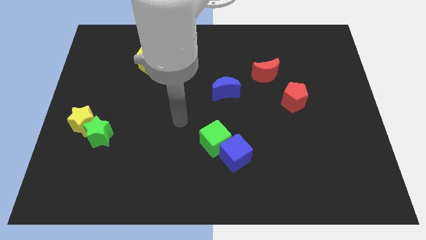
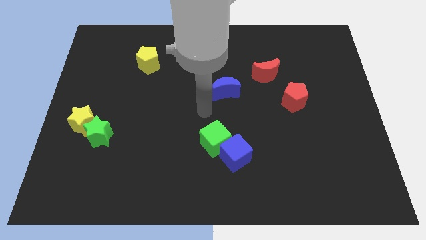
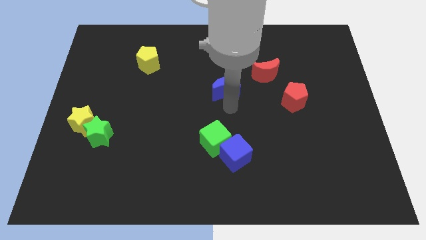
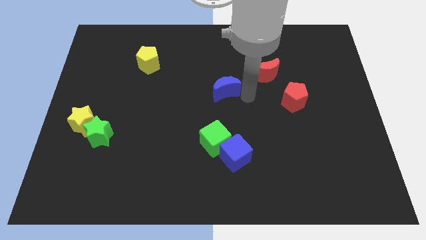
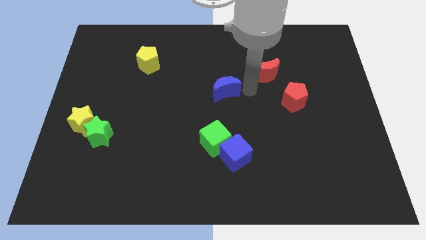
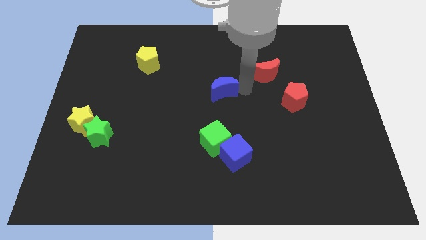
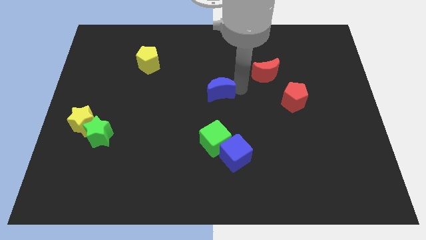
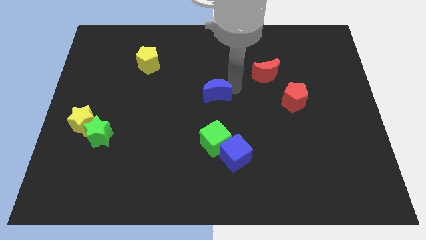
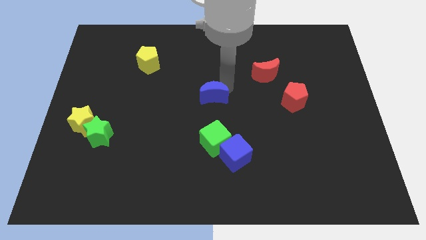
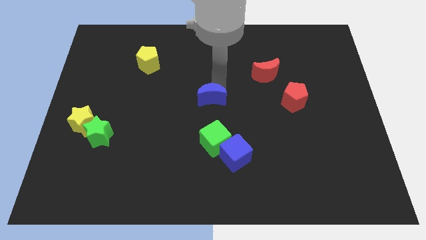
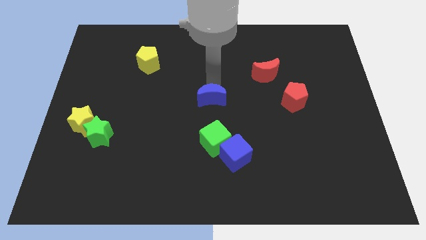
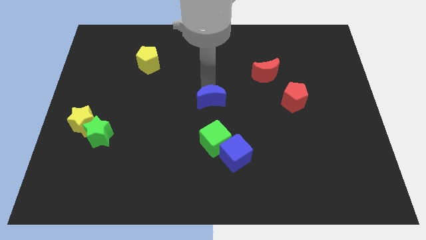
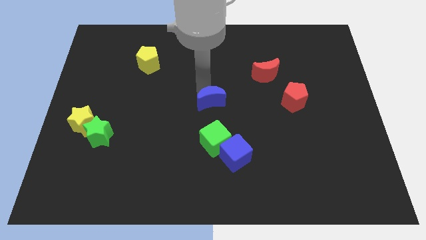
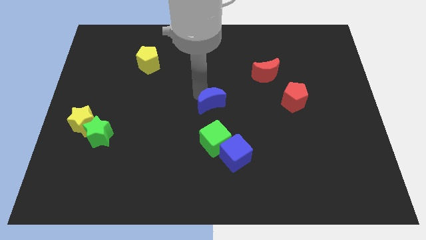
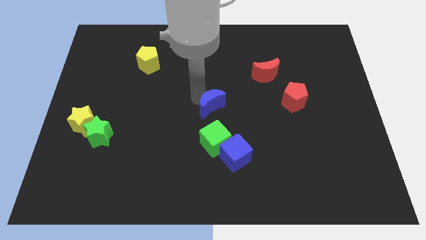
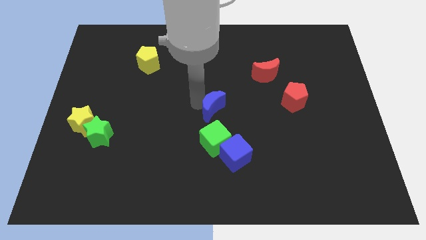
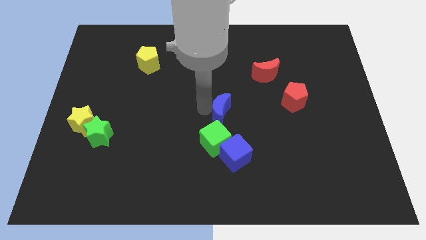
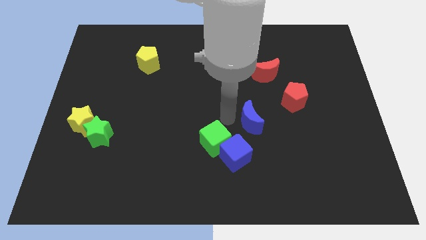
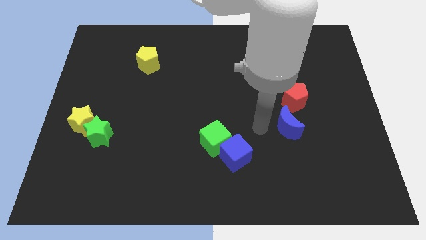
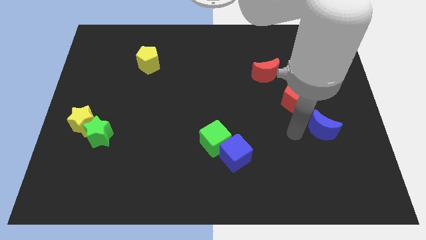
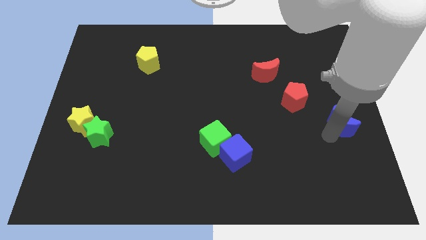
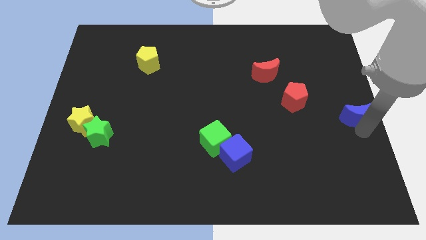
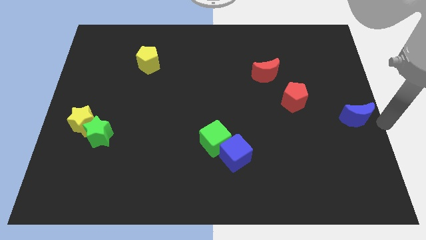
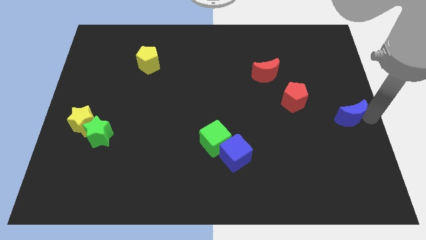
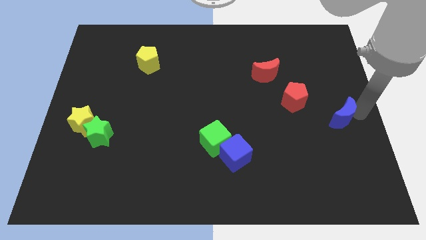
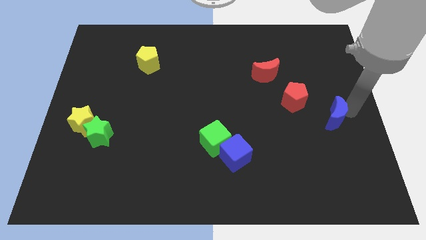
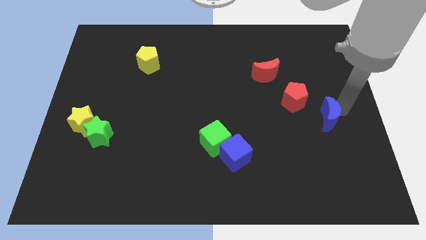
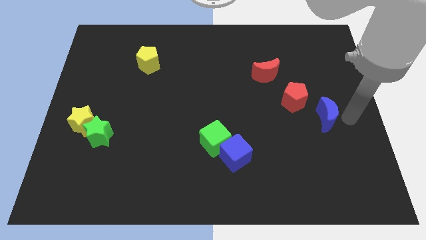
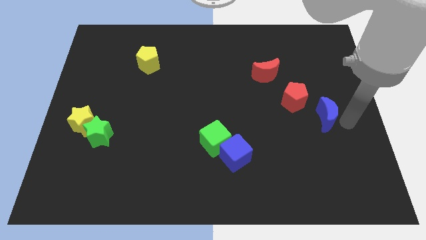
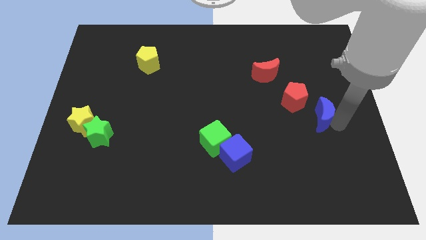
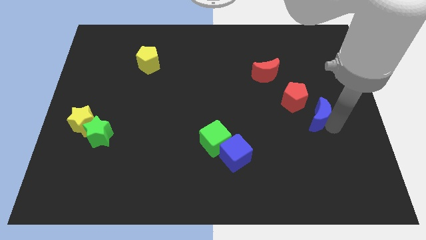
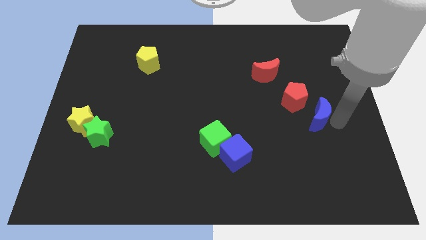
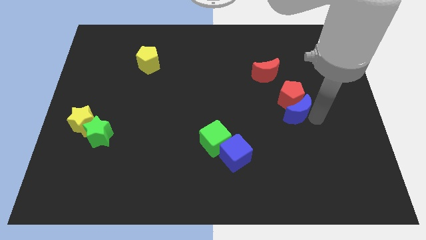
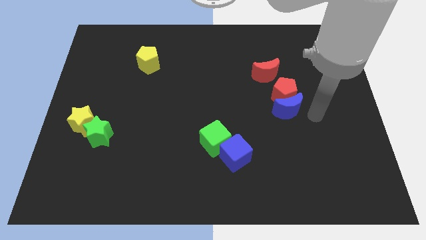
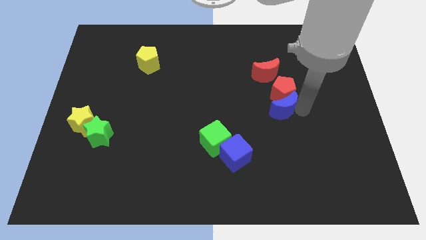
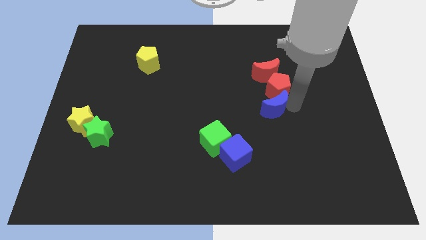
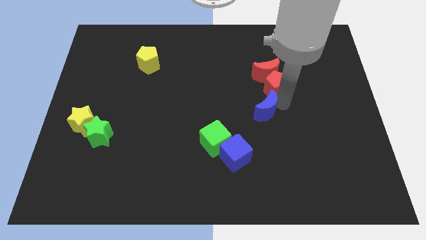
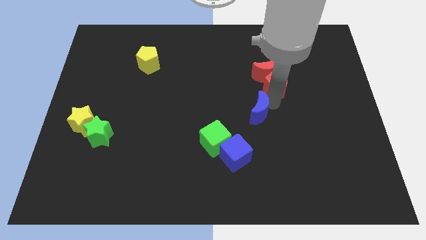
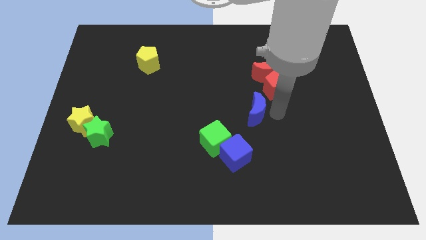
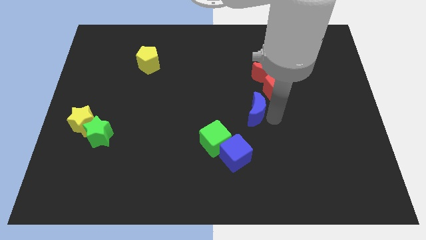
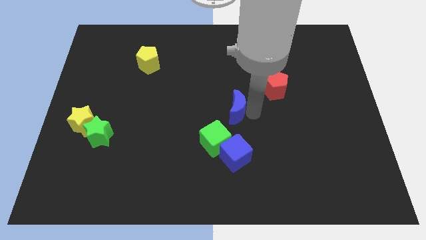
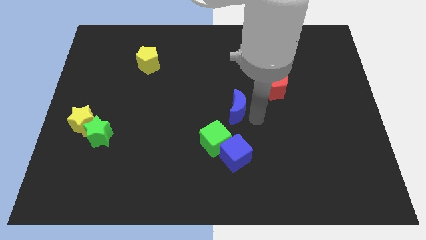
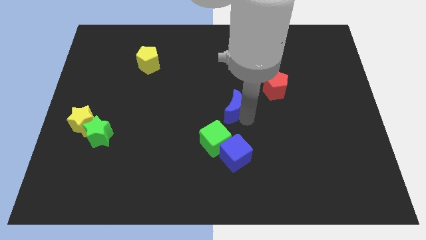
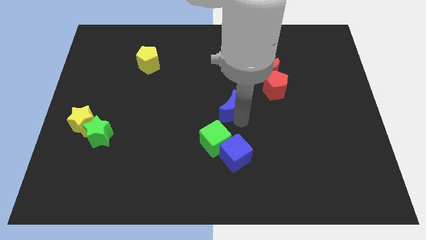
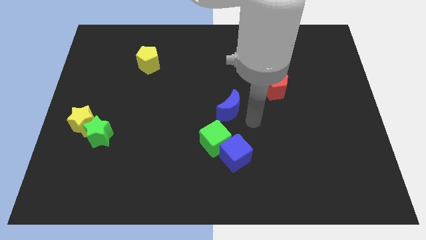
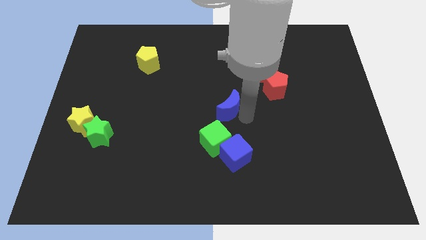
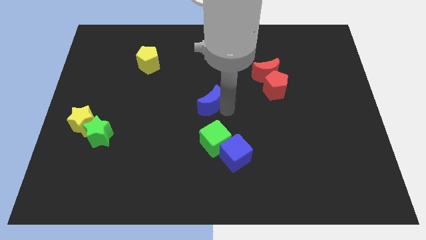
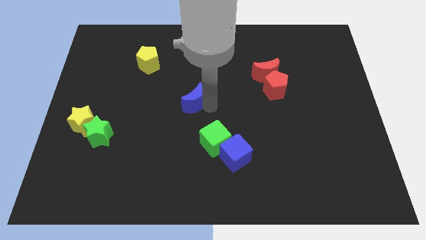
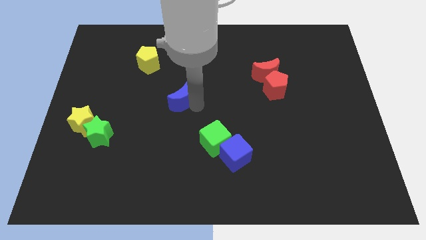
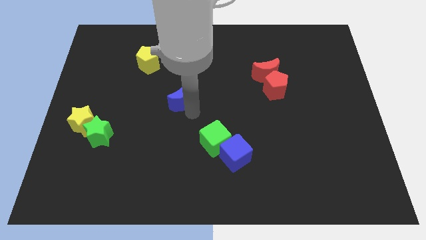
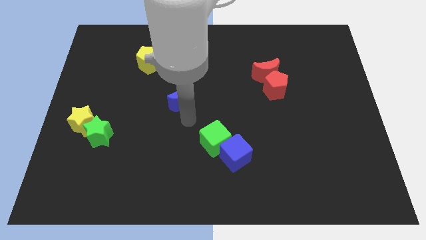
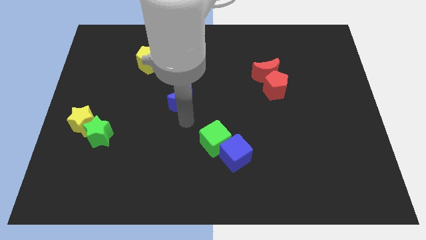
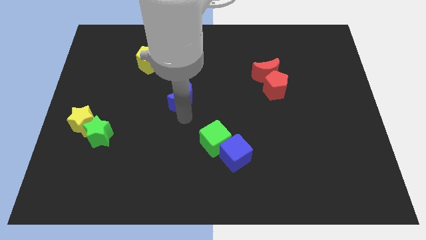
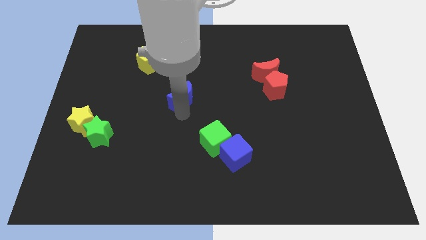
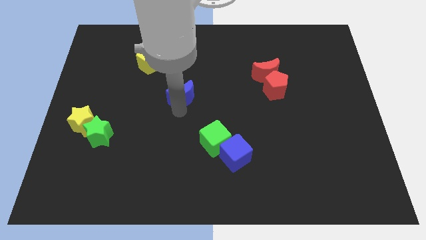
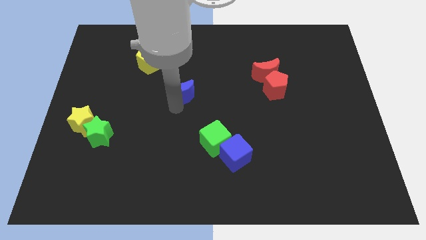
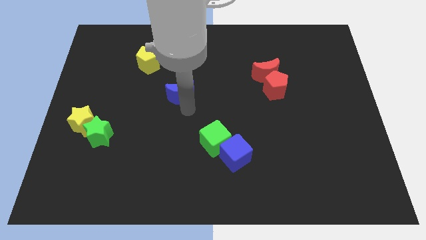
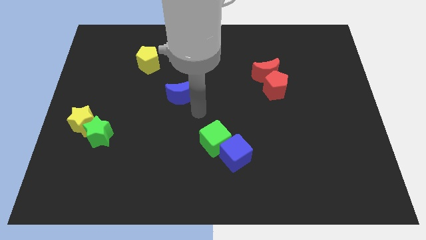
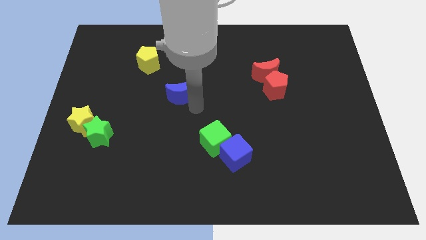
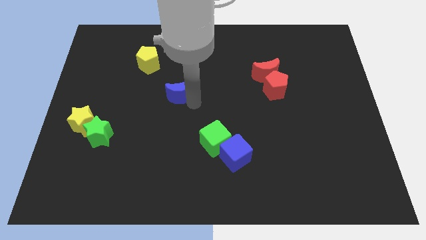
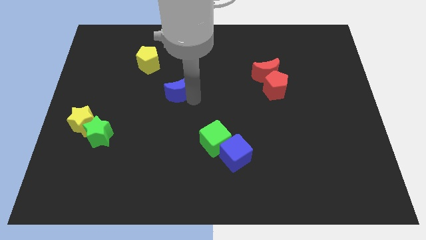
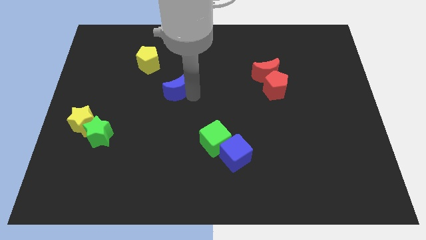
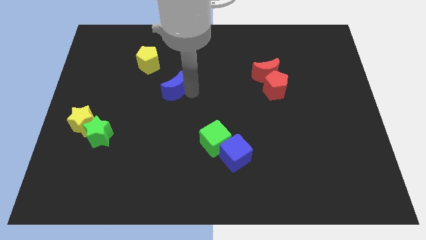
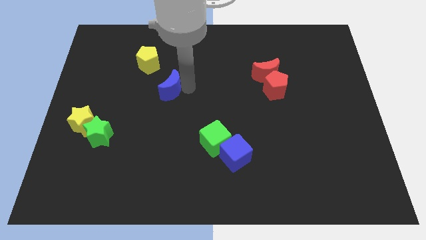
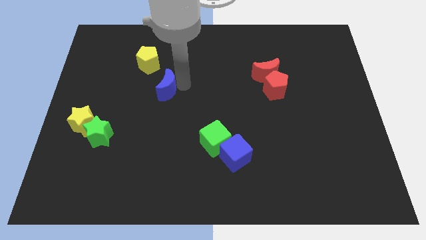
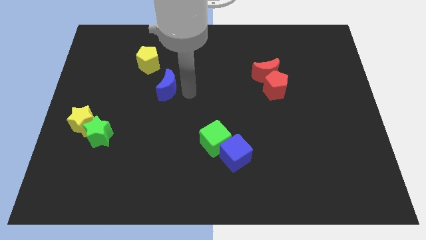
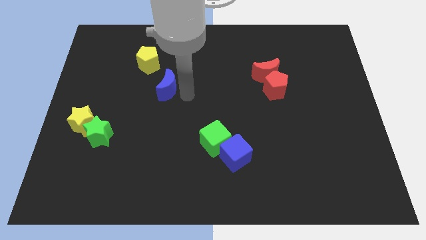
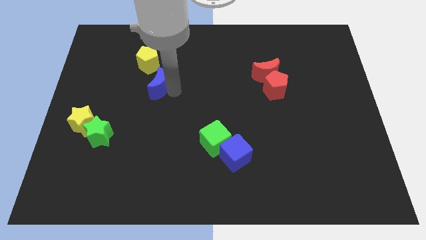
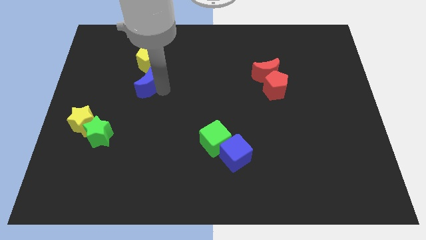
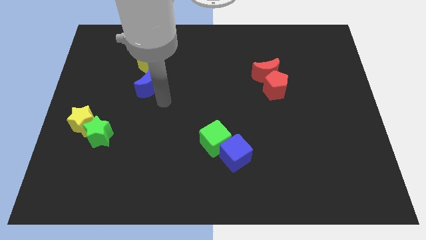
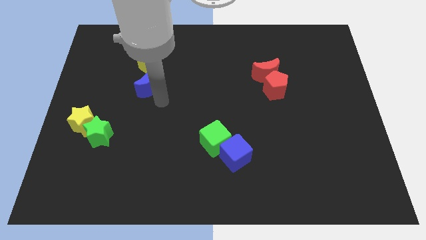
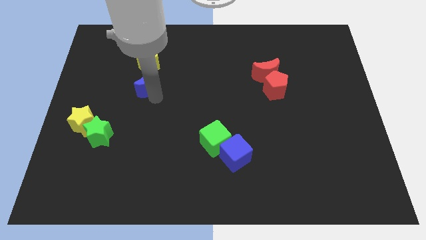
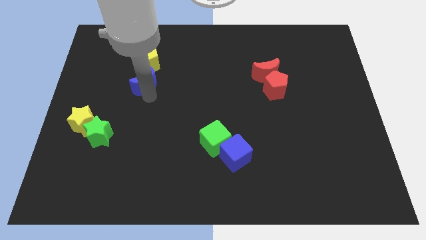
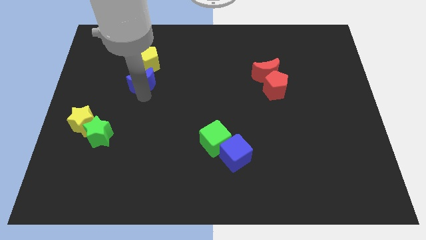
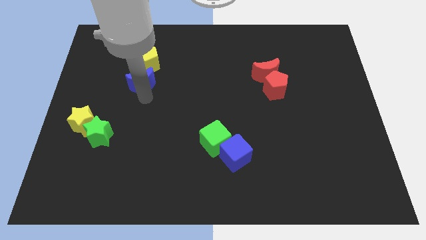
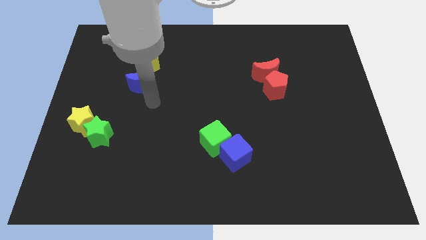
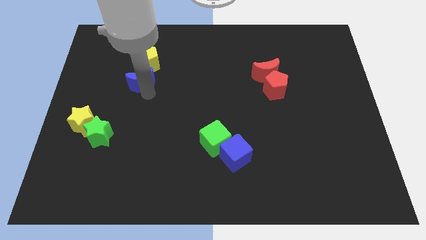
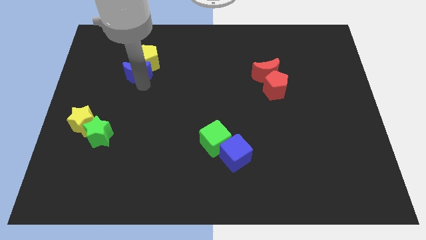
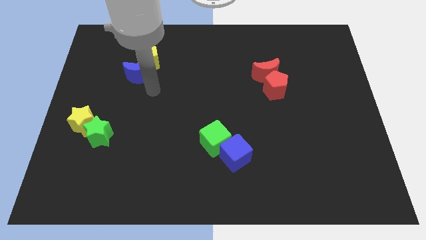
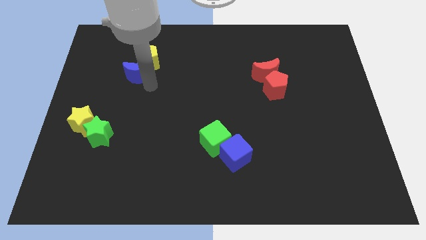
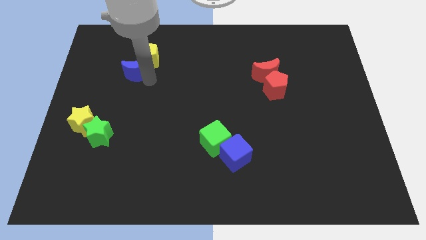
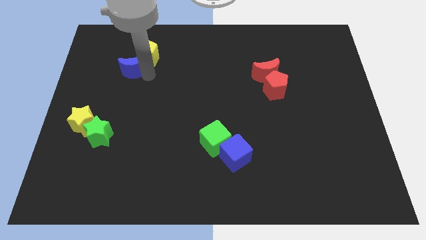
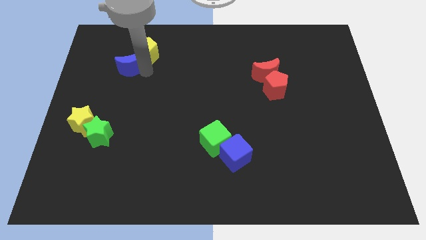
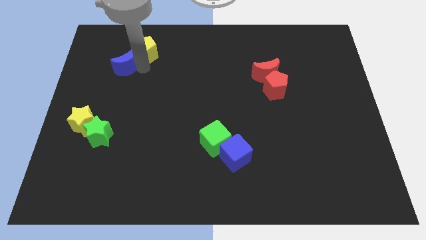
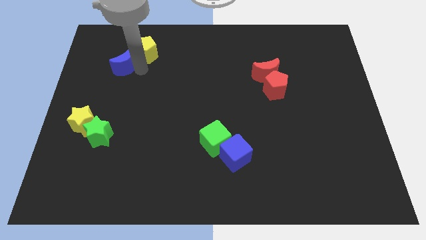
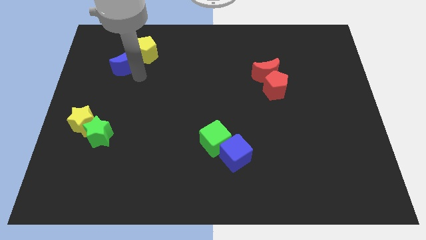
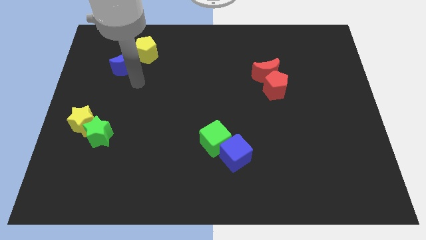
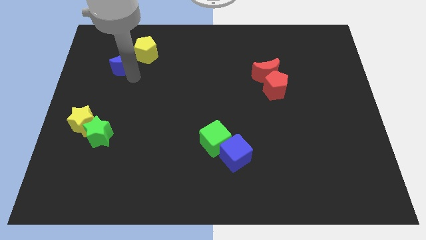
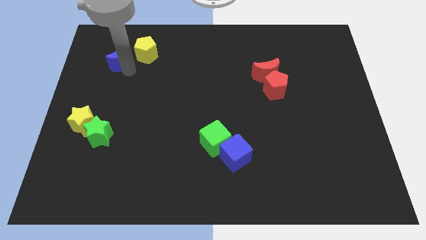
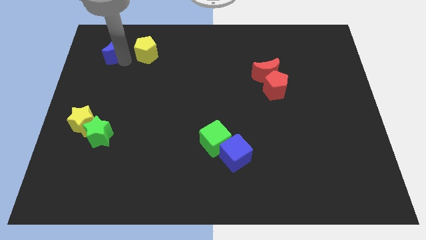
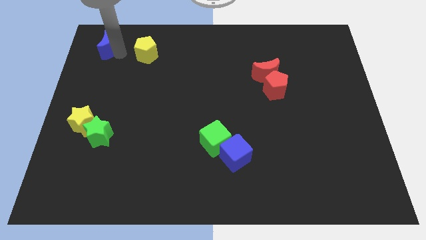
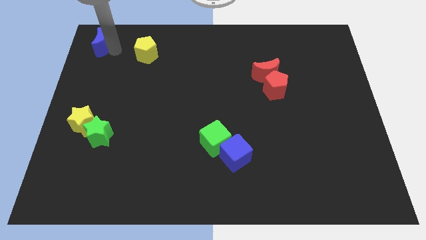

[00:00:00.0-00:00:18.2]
slide the blue moon to the top left
